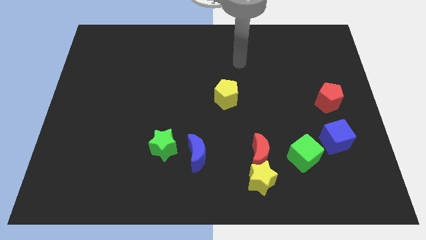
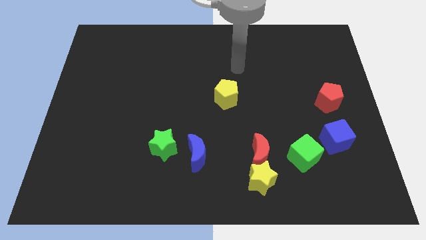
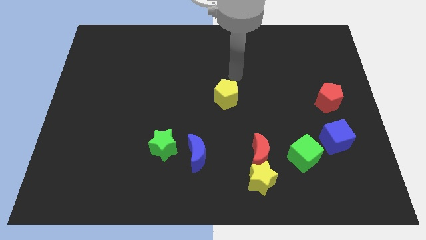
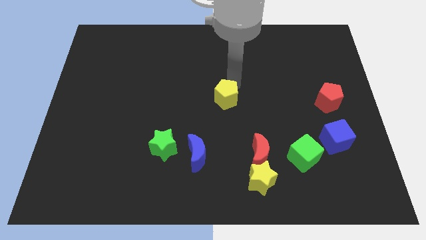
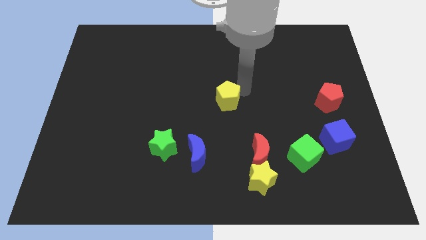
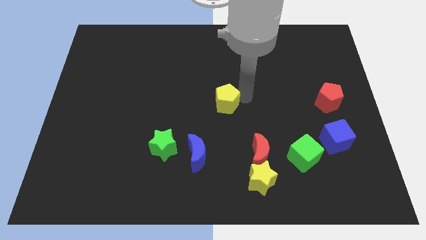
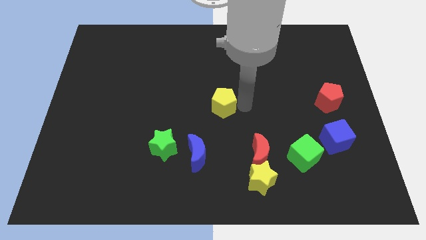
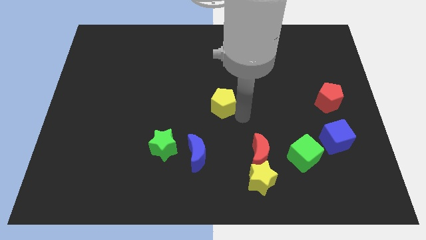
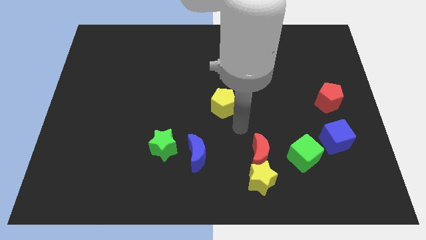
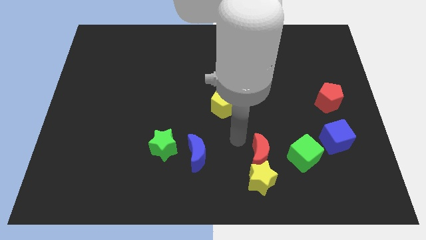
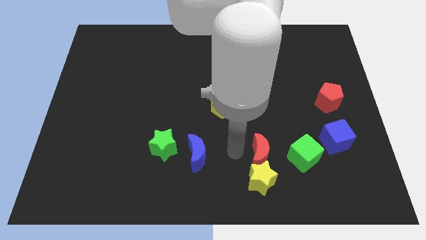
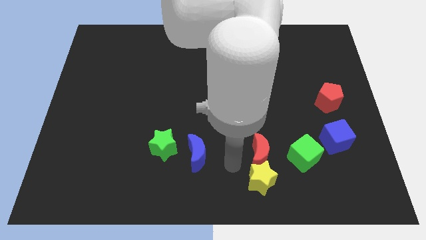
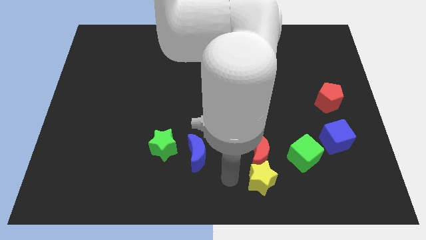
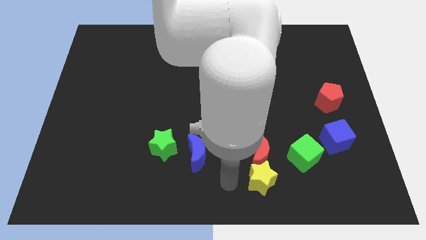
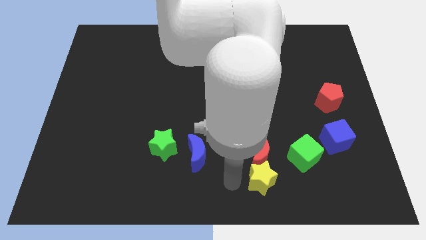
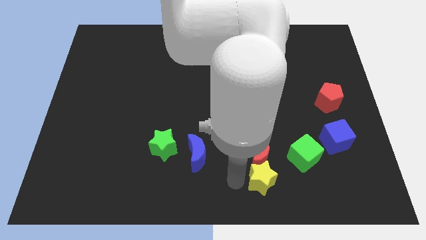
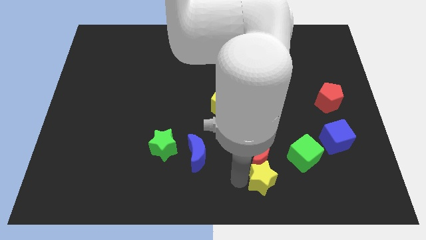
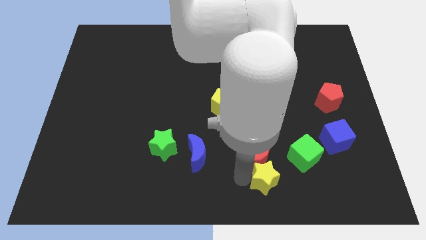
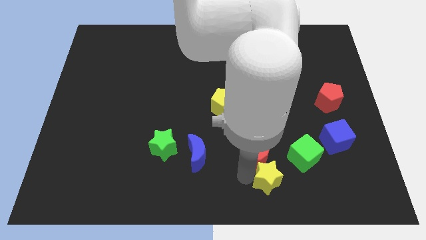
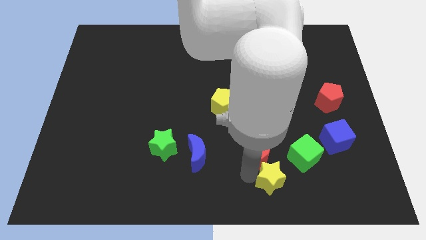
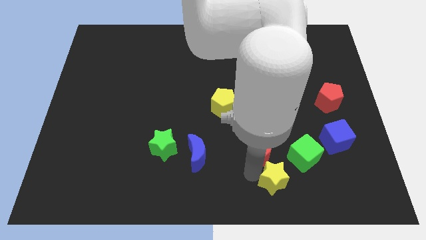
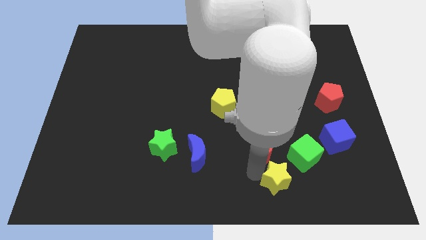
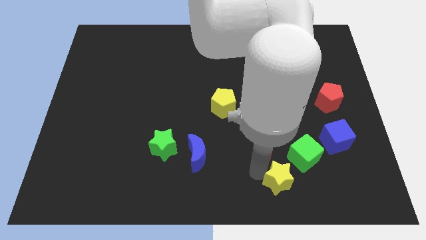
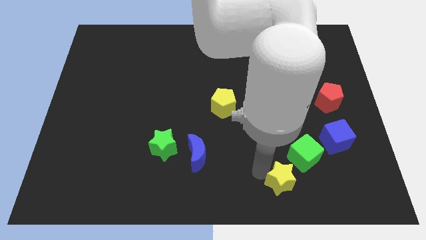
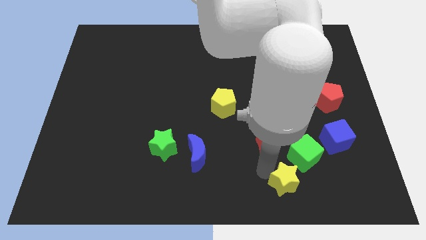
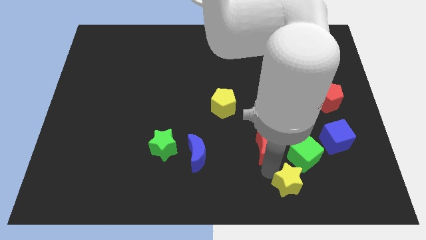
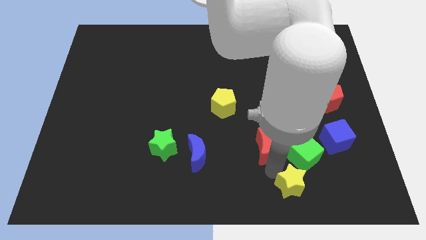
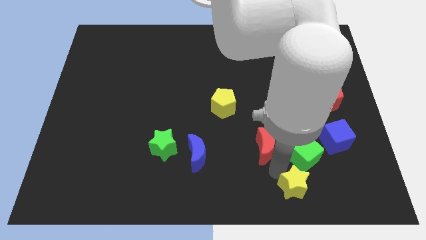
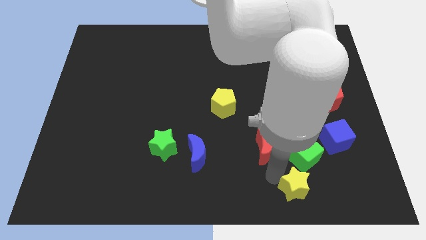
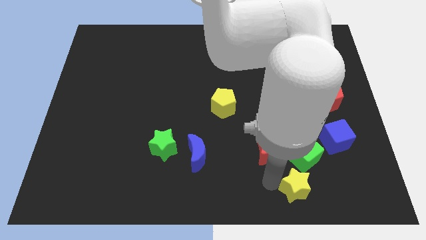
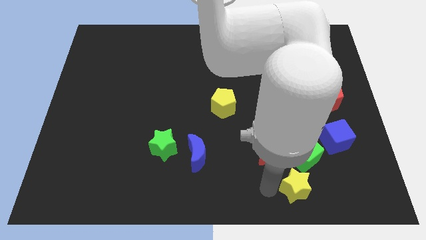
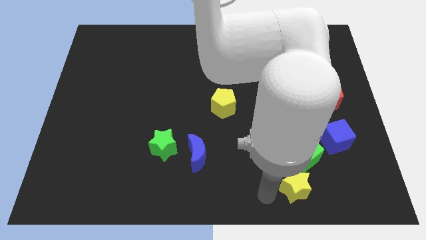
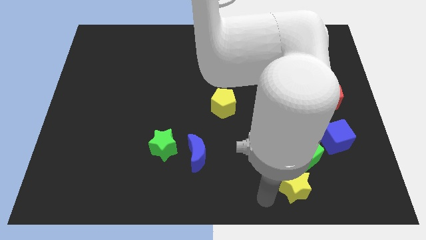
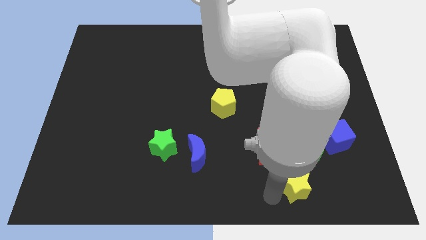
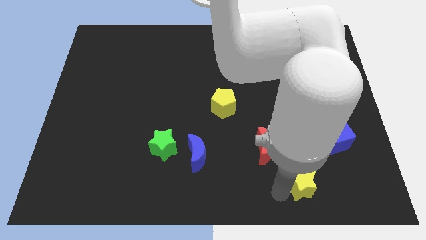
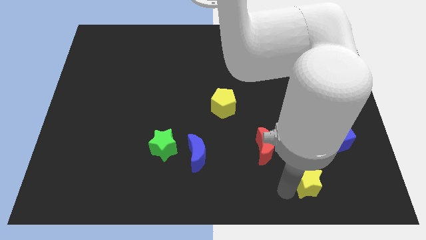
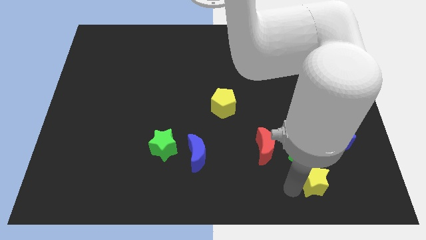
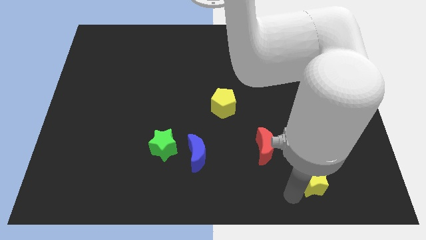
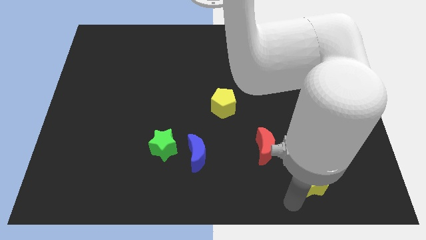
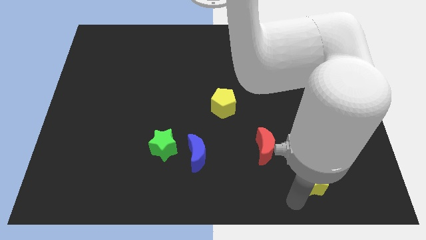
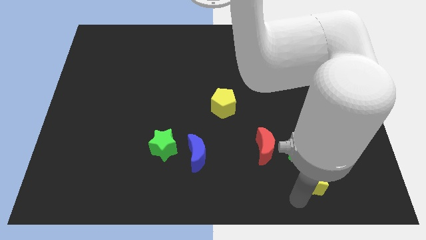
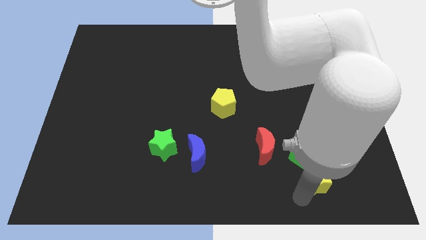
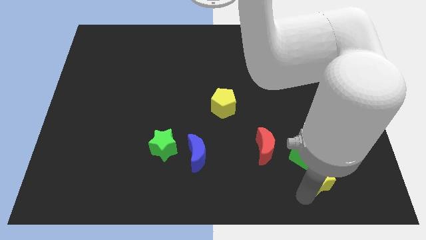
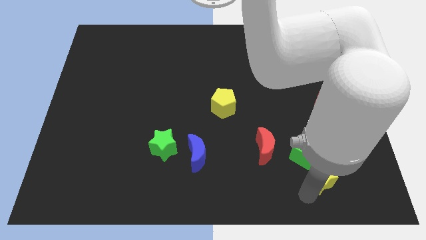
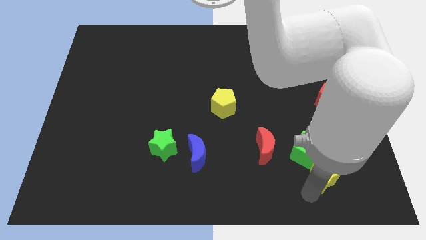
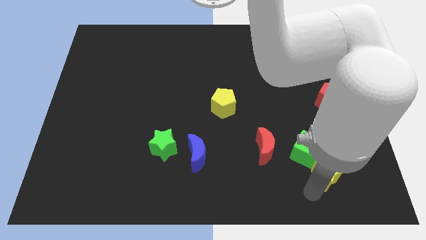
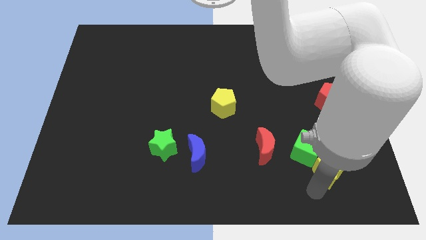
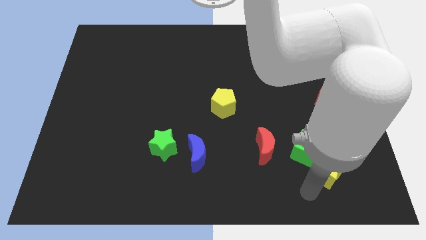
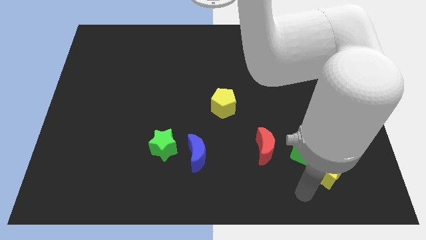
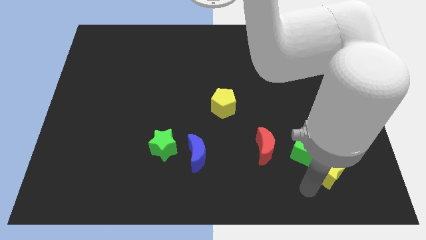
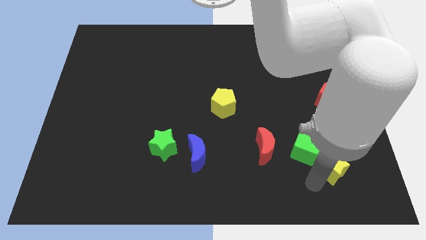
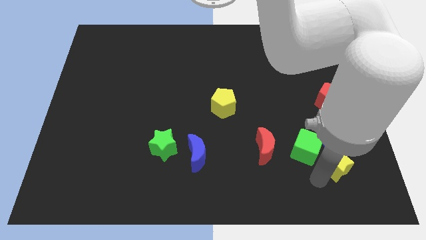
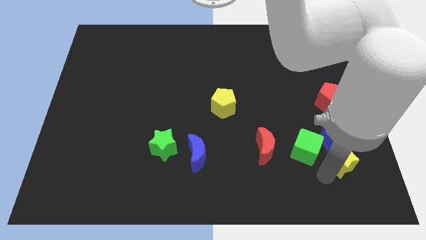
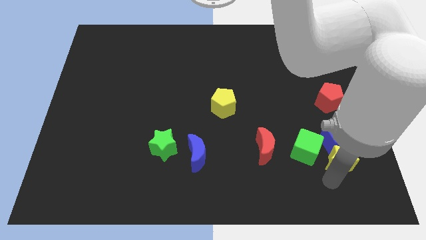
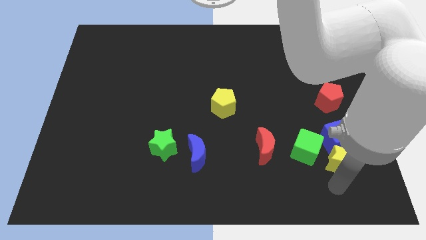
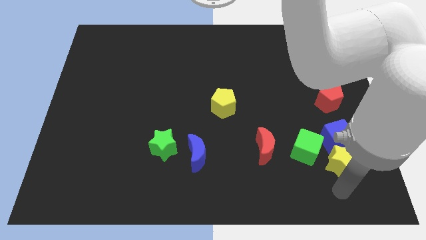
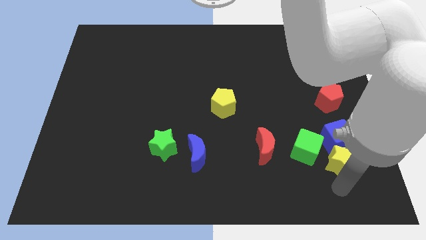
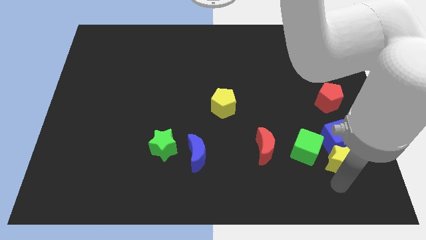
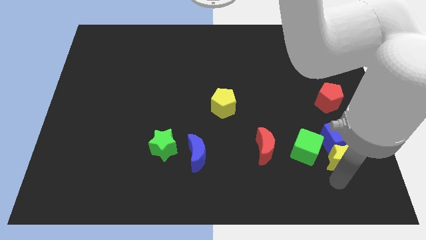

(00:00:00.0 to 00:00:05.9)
move the yellow star below the red pentagon

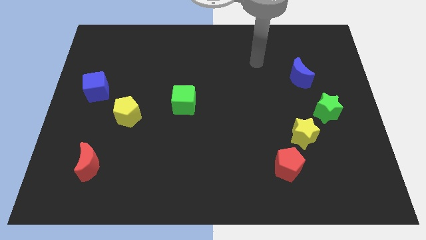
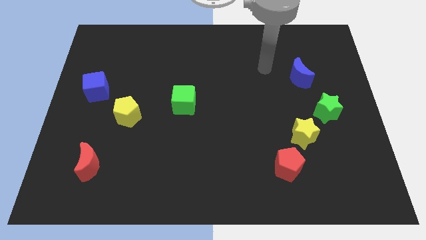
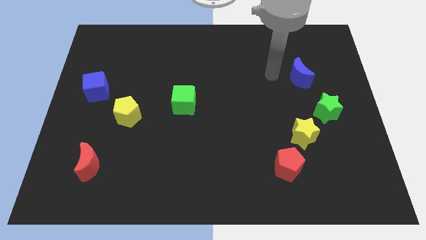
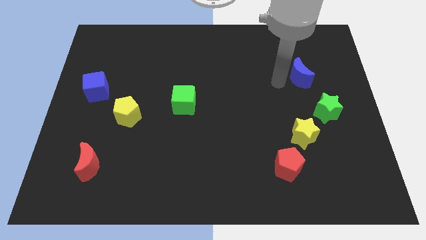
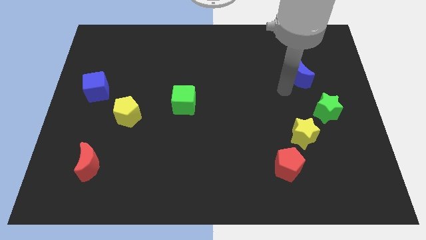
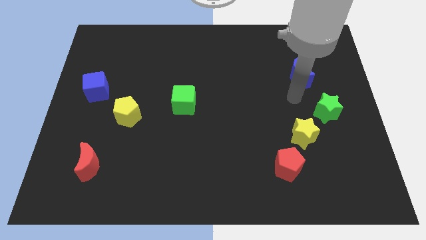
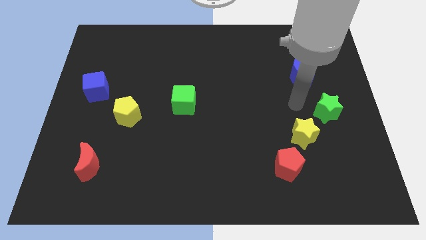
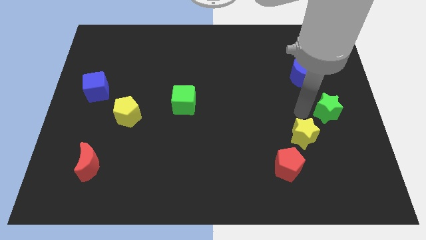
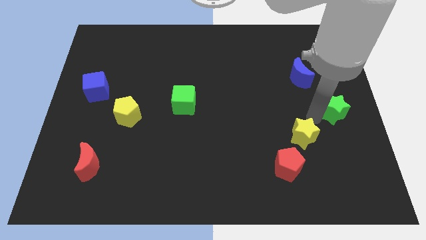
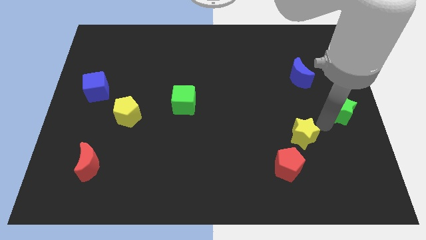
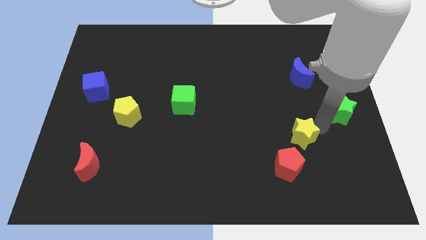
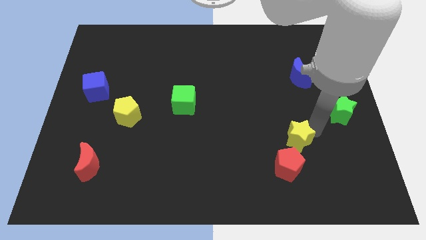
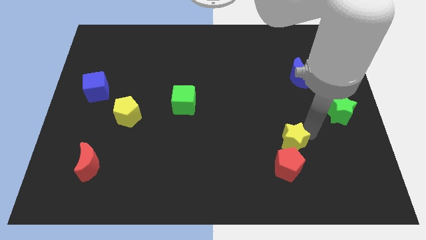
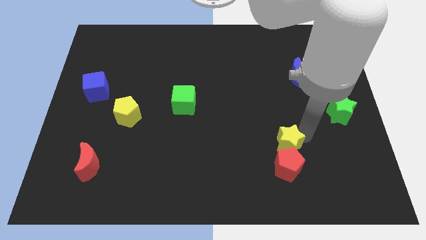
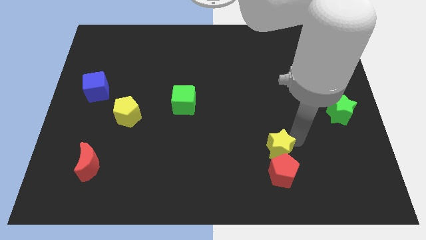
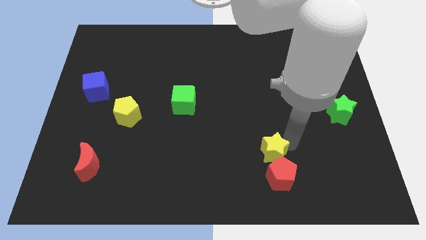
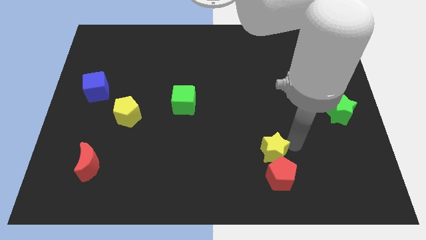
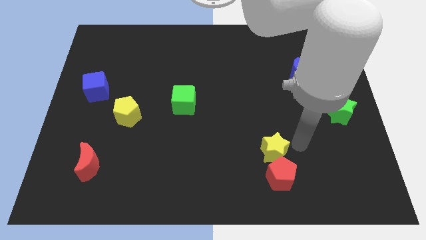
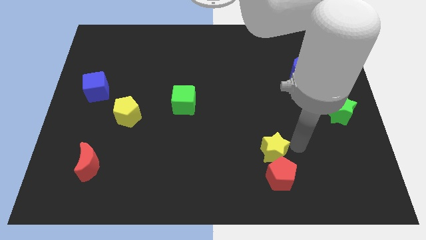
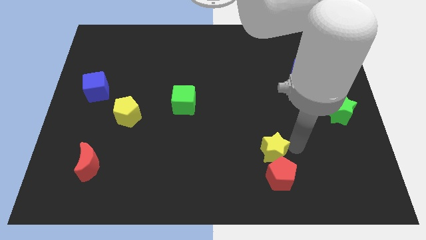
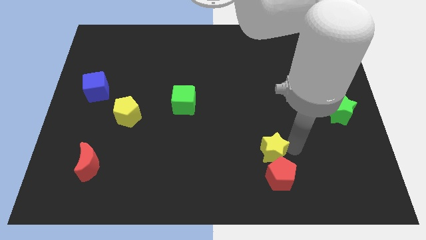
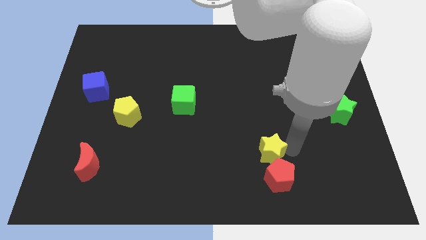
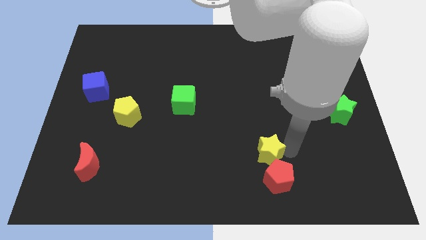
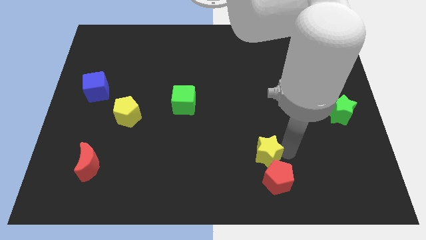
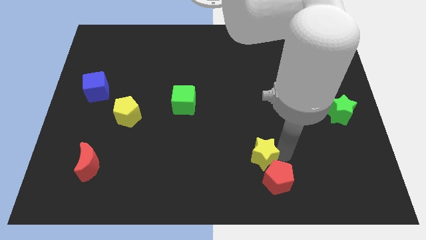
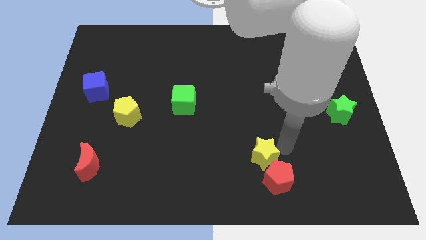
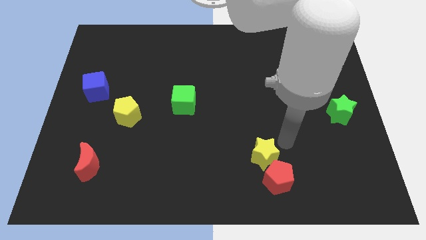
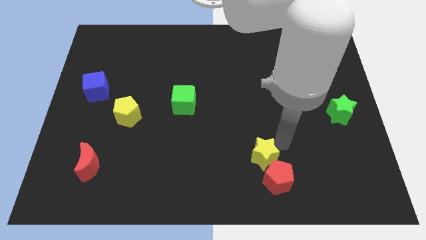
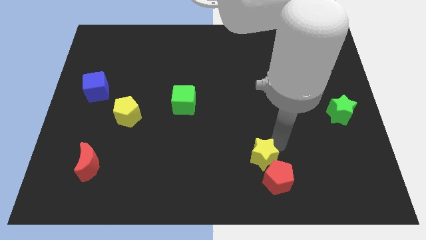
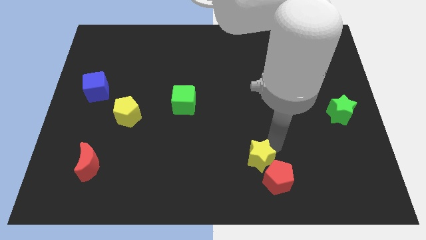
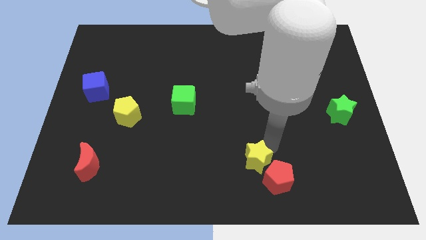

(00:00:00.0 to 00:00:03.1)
put the yellow star to the left of the red pentagon
